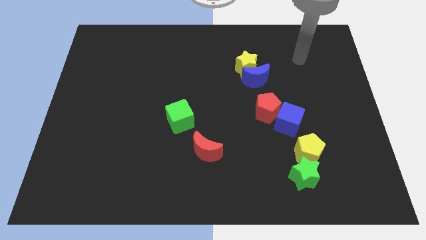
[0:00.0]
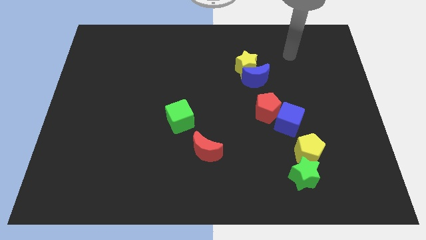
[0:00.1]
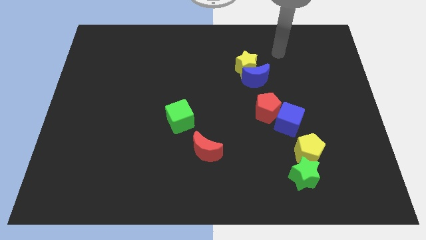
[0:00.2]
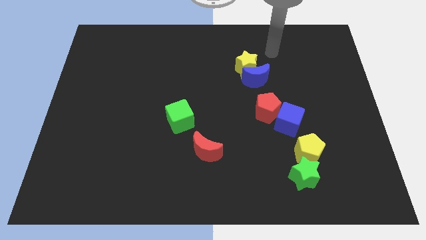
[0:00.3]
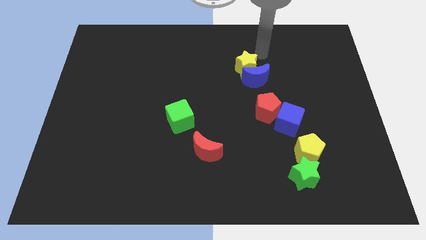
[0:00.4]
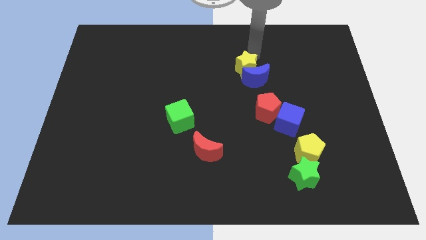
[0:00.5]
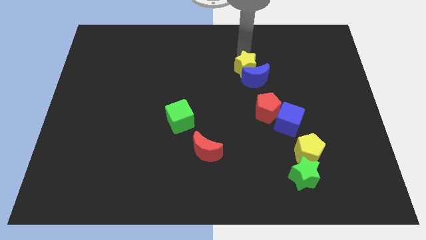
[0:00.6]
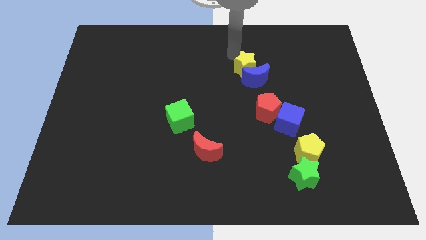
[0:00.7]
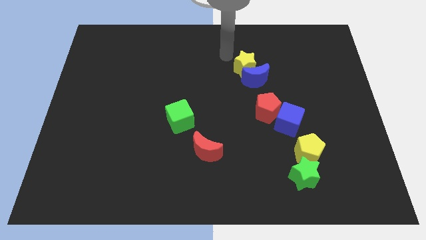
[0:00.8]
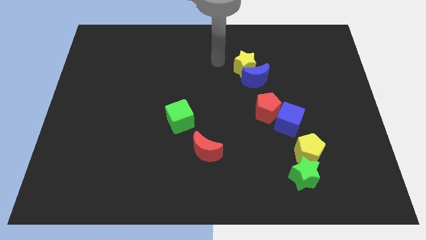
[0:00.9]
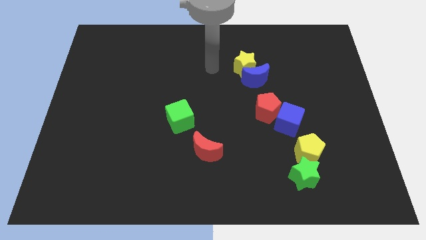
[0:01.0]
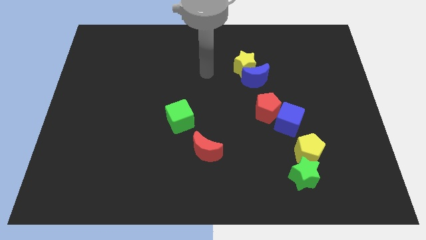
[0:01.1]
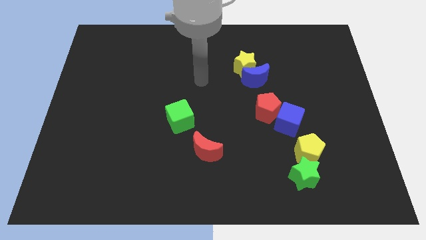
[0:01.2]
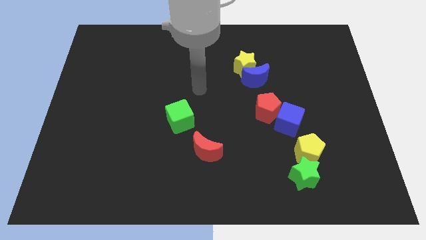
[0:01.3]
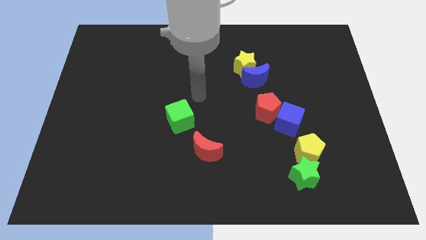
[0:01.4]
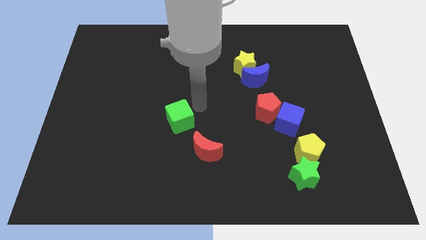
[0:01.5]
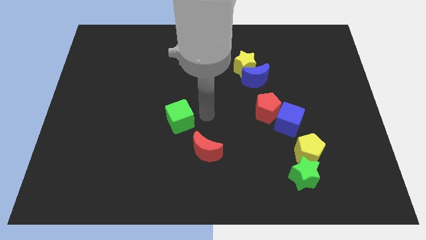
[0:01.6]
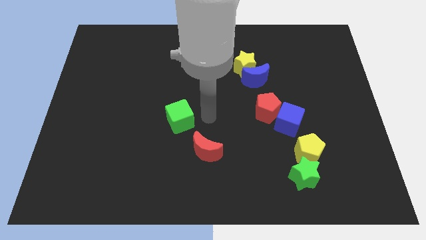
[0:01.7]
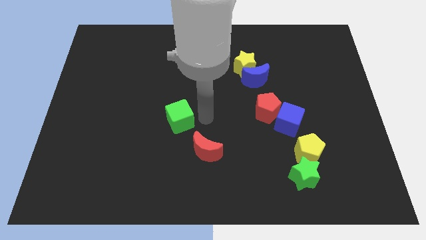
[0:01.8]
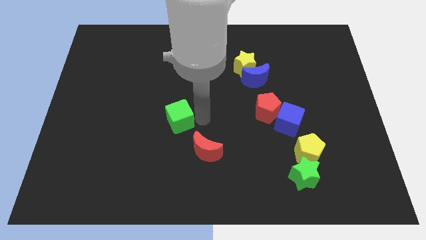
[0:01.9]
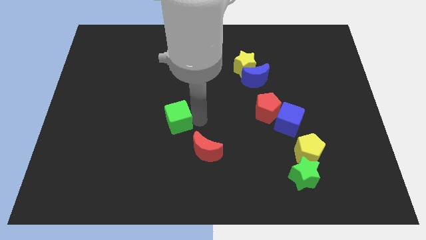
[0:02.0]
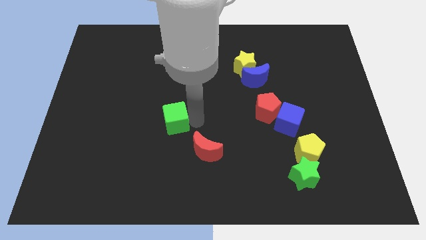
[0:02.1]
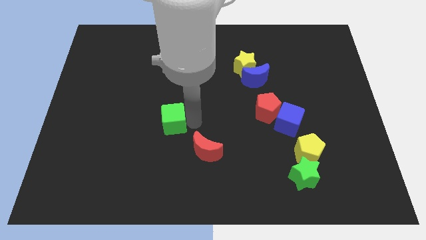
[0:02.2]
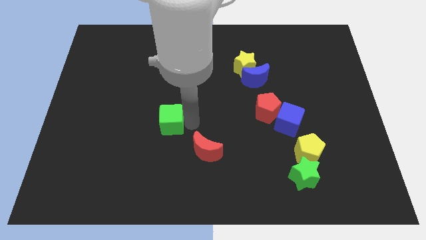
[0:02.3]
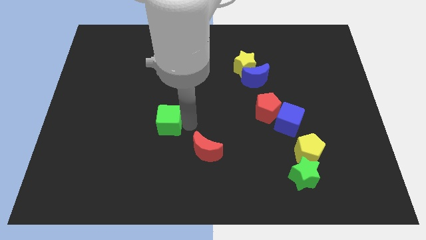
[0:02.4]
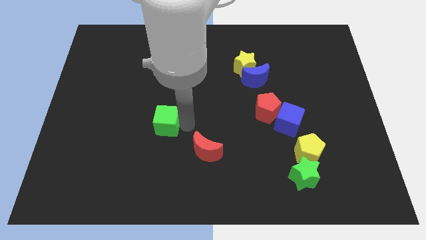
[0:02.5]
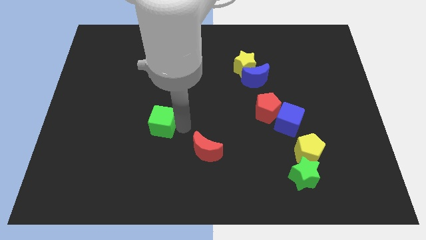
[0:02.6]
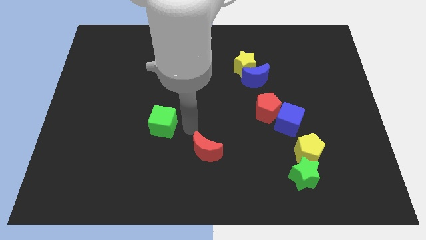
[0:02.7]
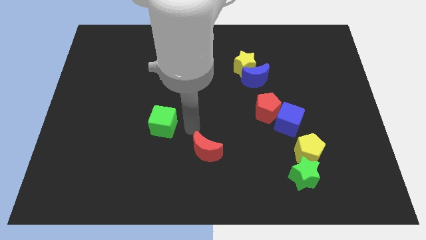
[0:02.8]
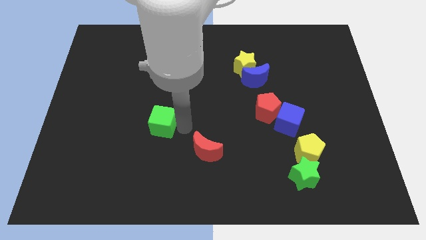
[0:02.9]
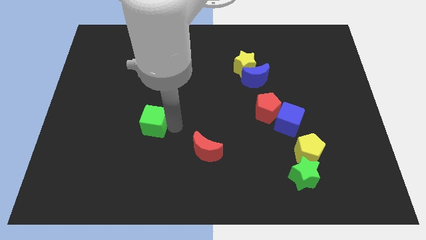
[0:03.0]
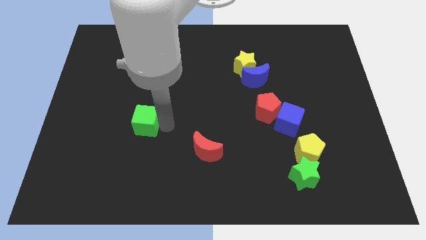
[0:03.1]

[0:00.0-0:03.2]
slightly push the green cube left

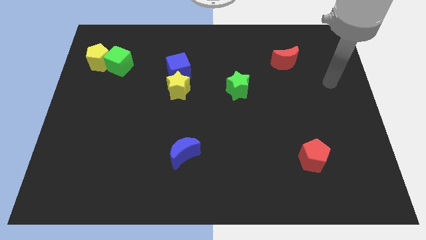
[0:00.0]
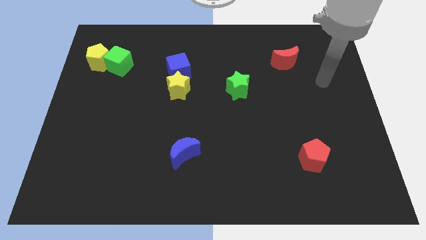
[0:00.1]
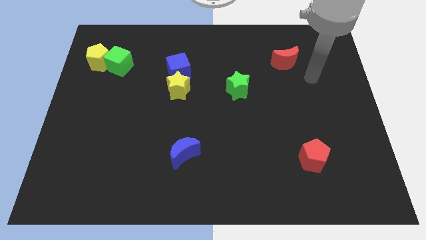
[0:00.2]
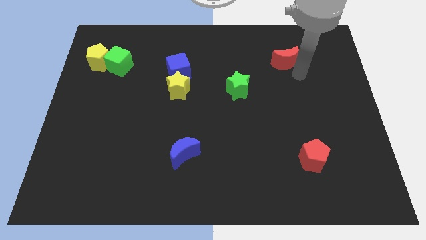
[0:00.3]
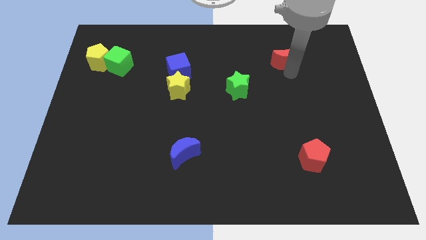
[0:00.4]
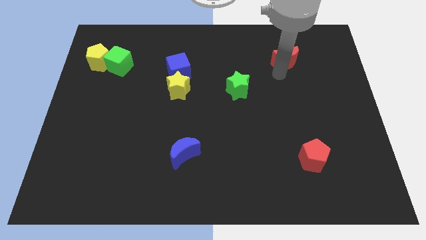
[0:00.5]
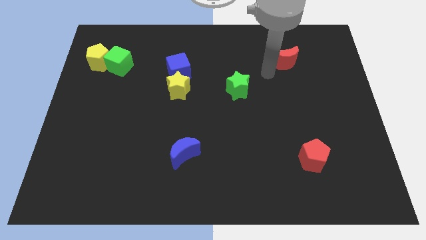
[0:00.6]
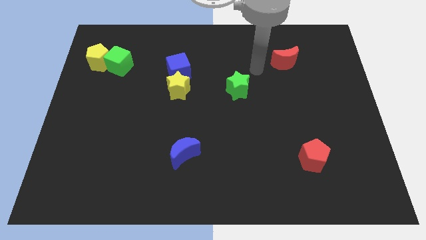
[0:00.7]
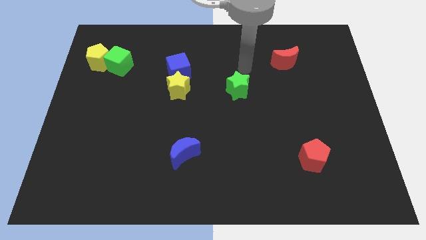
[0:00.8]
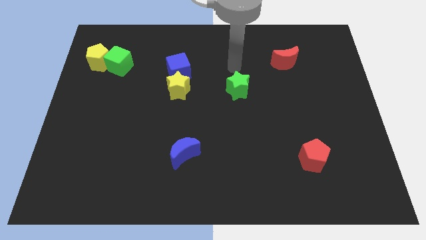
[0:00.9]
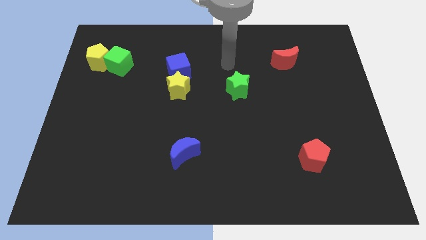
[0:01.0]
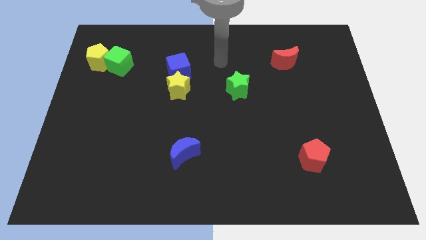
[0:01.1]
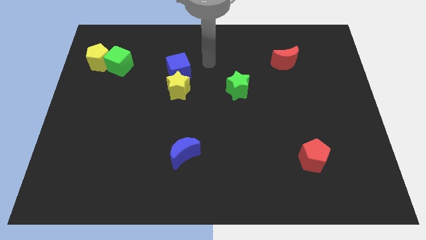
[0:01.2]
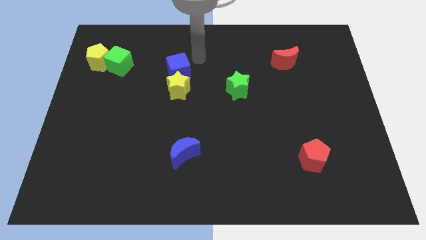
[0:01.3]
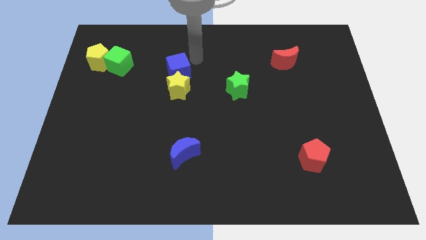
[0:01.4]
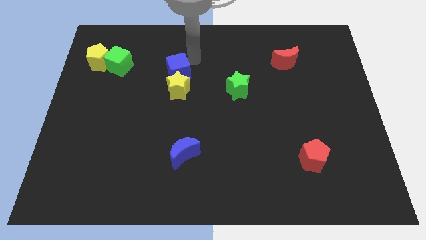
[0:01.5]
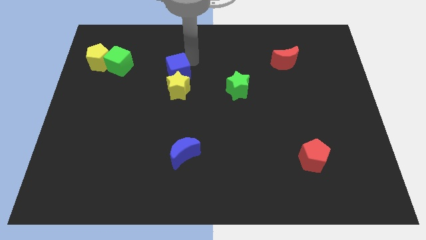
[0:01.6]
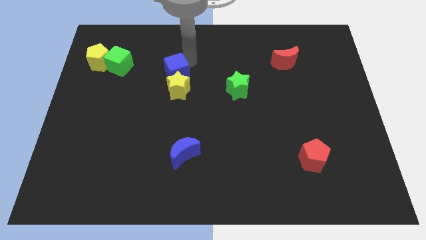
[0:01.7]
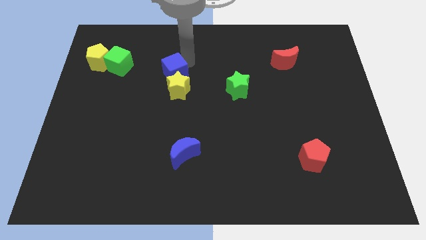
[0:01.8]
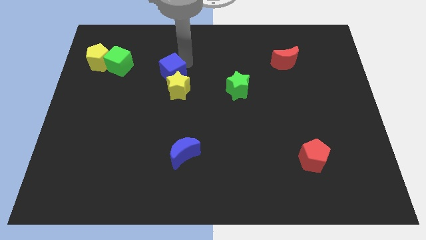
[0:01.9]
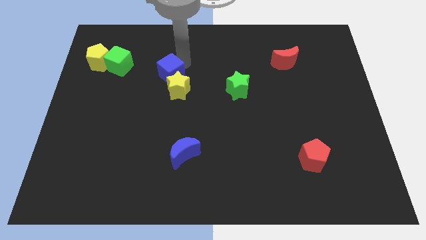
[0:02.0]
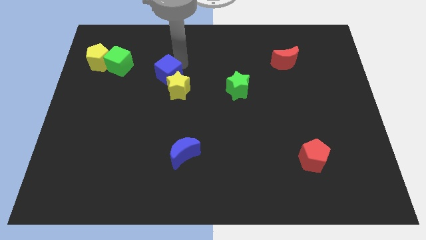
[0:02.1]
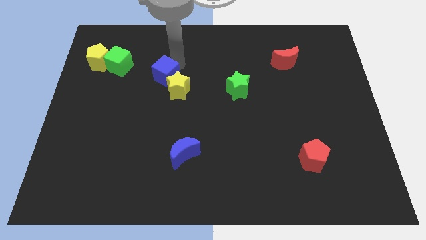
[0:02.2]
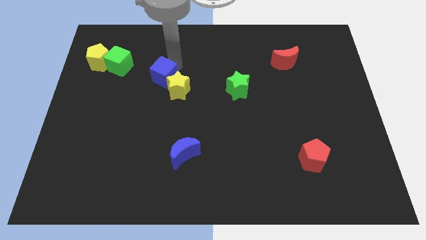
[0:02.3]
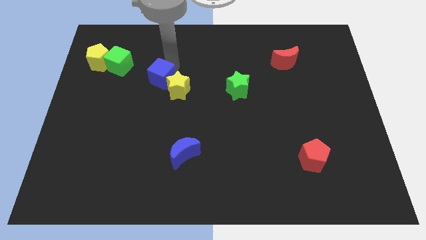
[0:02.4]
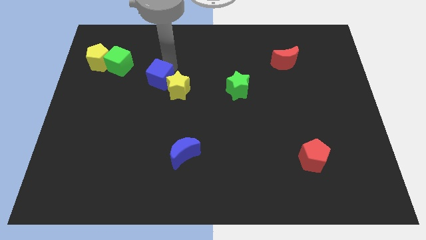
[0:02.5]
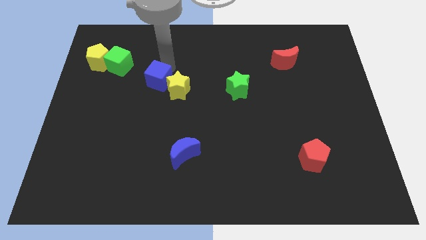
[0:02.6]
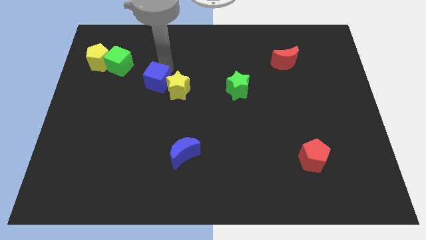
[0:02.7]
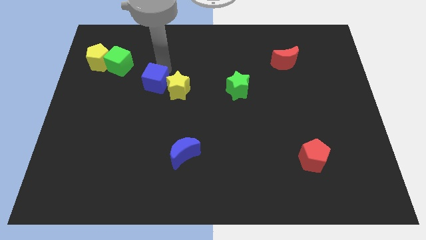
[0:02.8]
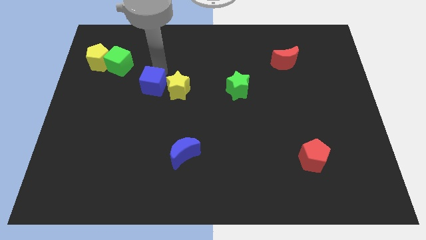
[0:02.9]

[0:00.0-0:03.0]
slide the blue cube a little bit diagonally down and left

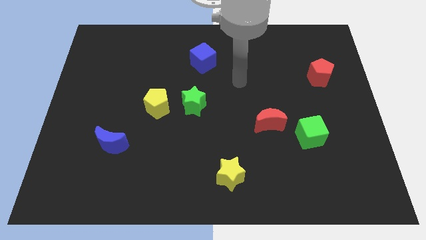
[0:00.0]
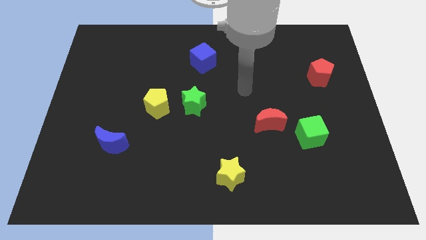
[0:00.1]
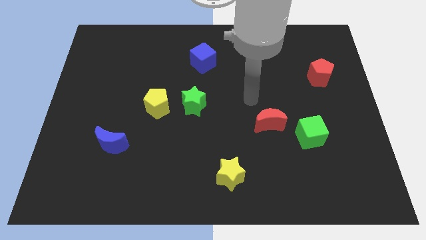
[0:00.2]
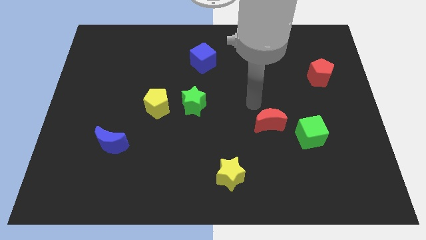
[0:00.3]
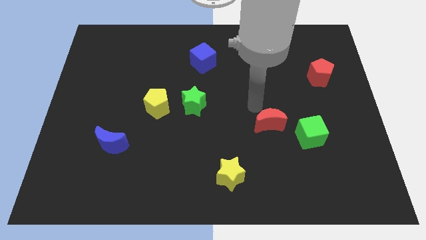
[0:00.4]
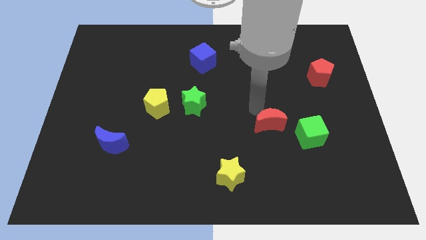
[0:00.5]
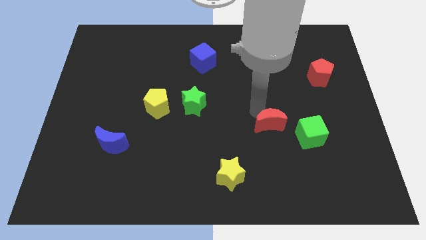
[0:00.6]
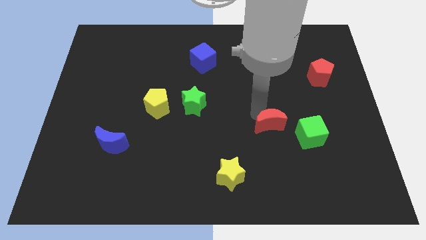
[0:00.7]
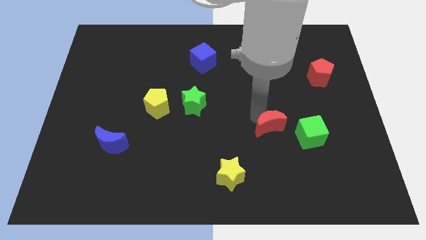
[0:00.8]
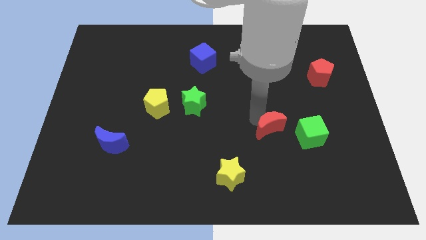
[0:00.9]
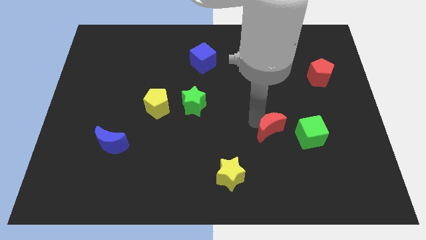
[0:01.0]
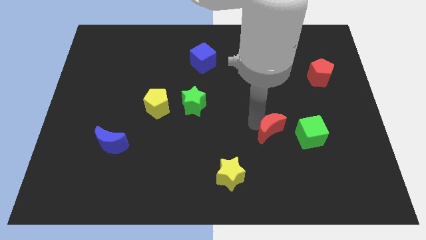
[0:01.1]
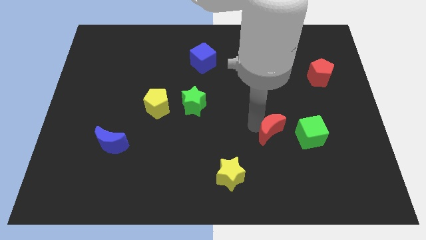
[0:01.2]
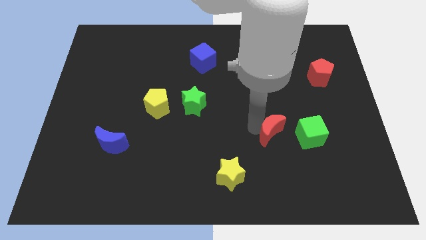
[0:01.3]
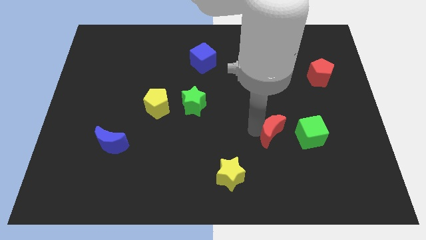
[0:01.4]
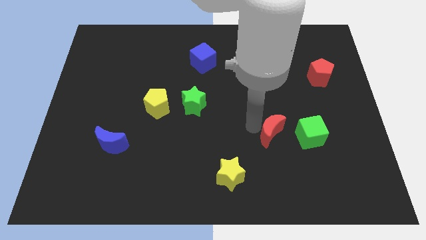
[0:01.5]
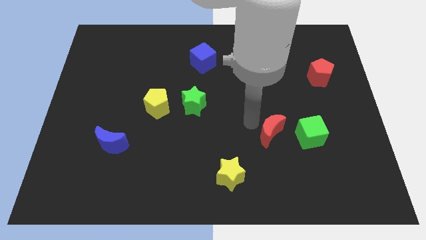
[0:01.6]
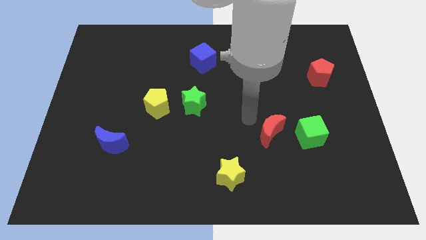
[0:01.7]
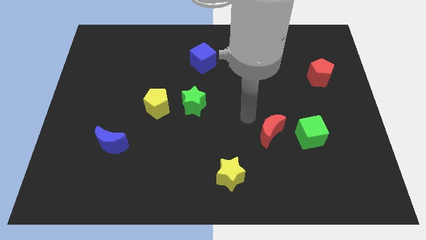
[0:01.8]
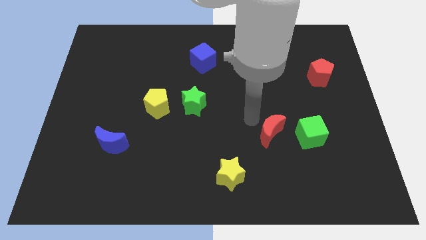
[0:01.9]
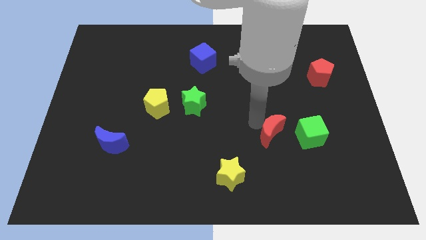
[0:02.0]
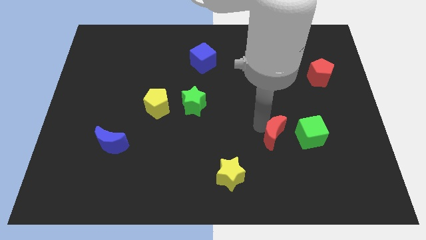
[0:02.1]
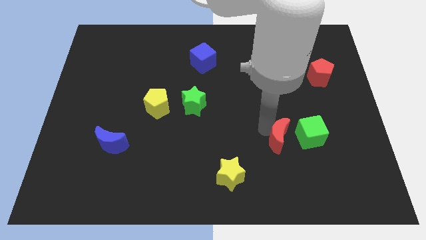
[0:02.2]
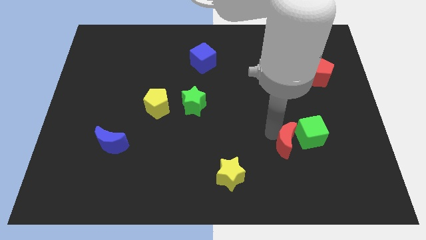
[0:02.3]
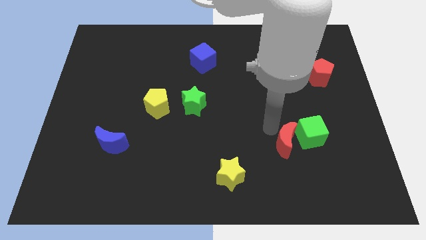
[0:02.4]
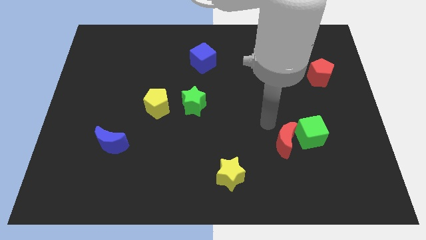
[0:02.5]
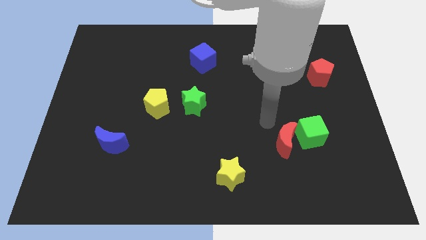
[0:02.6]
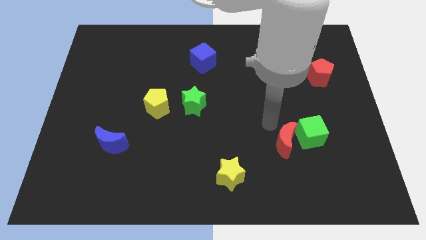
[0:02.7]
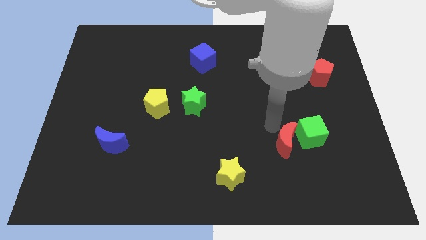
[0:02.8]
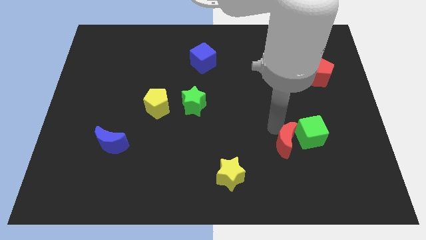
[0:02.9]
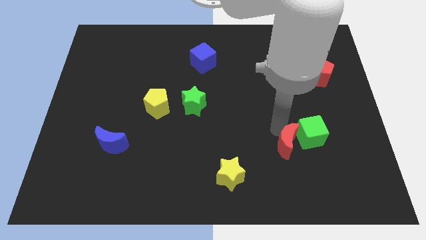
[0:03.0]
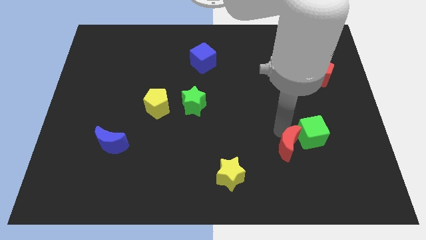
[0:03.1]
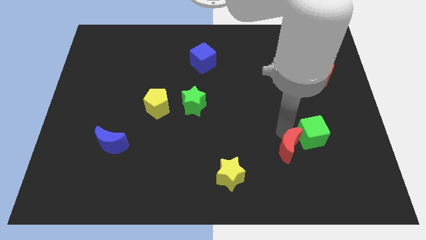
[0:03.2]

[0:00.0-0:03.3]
push the red moon down and then to the right somewhat
